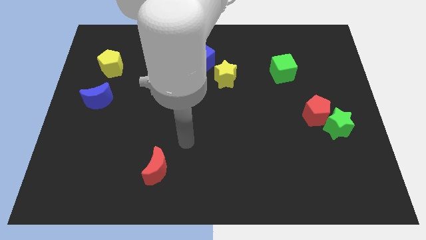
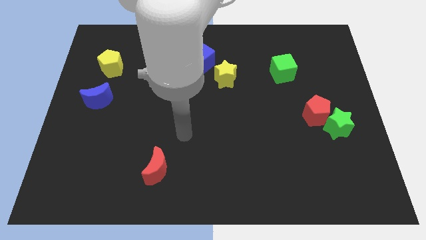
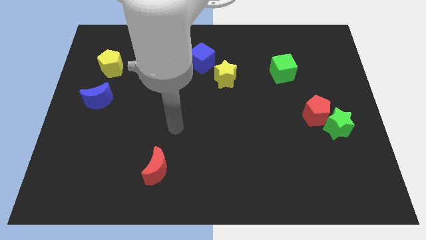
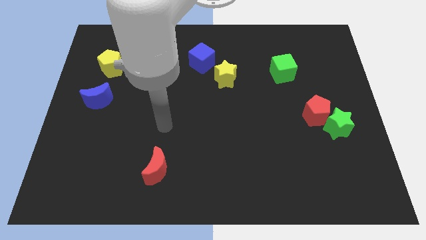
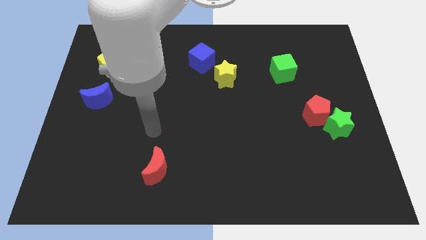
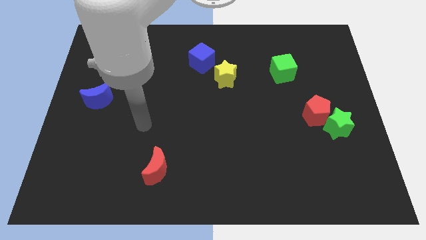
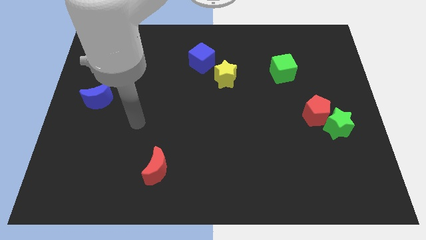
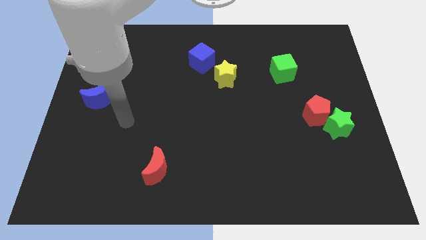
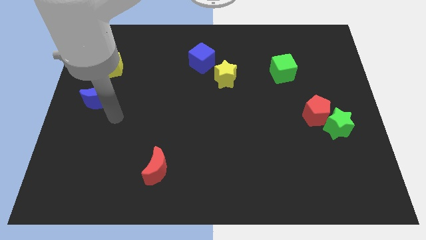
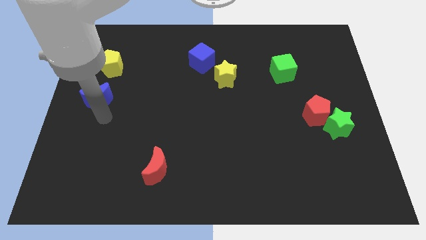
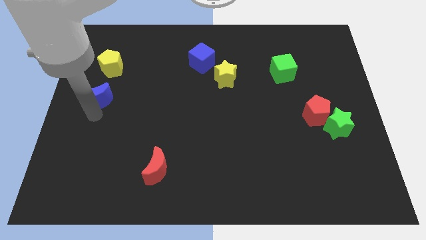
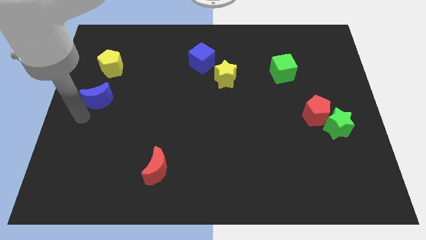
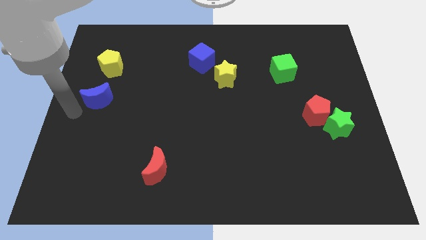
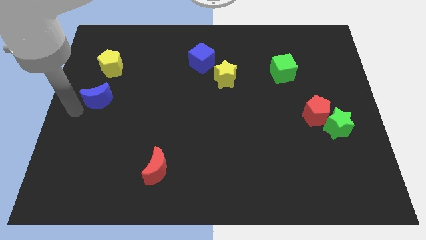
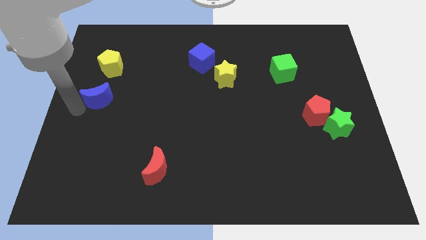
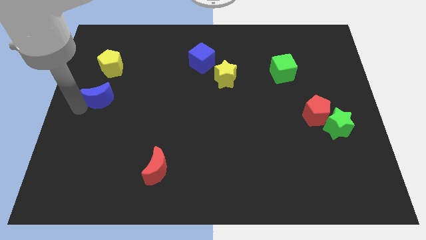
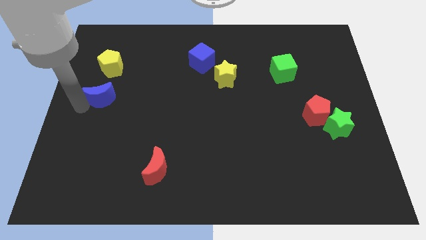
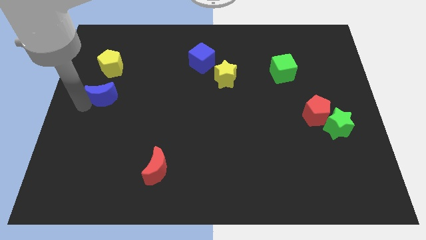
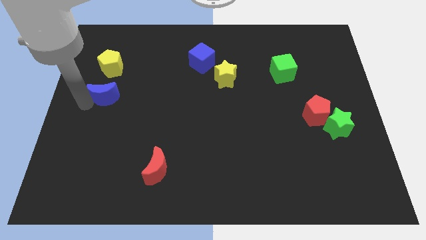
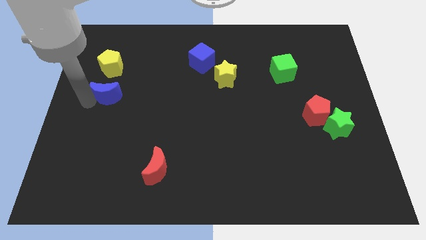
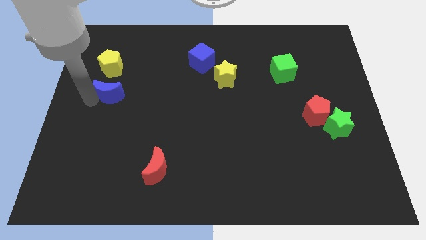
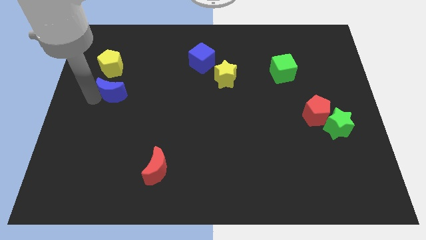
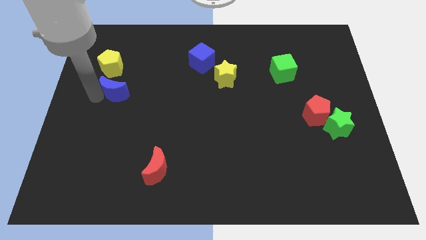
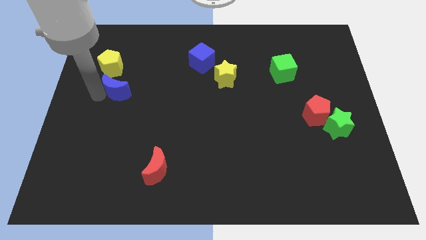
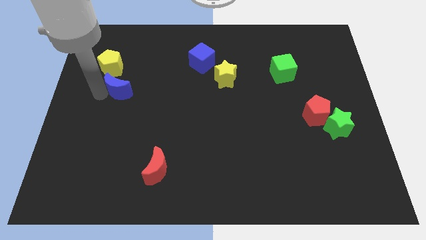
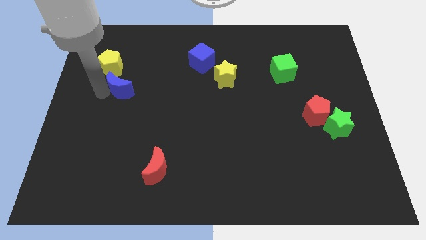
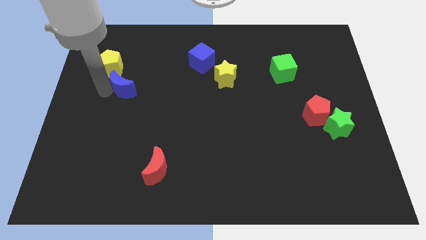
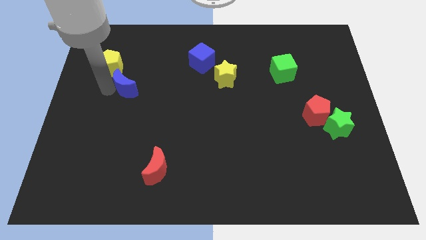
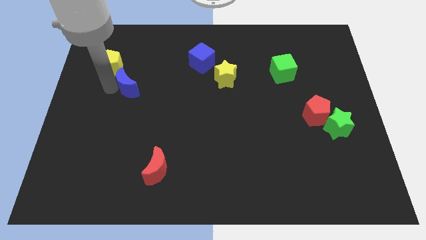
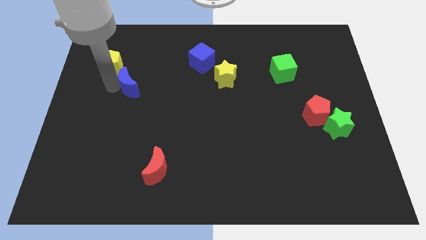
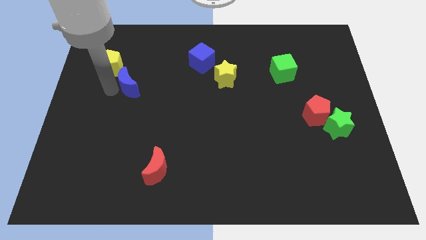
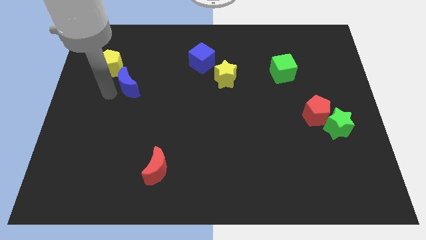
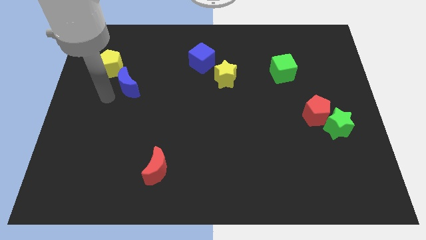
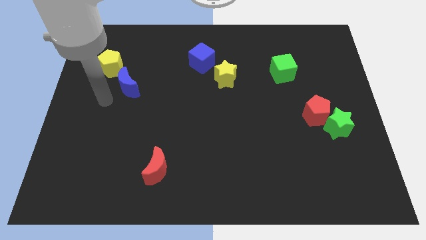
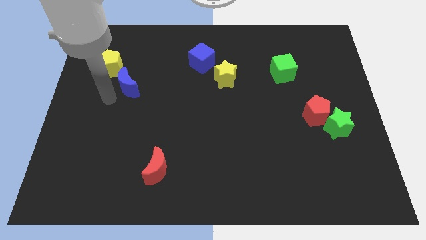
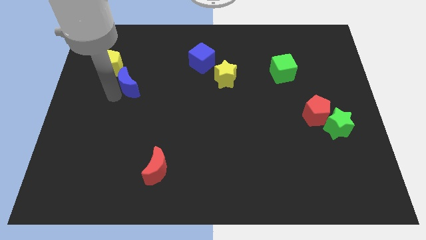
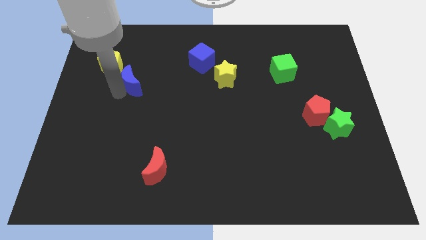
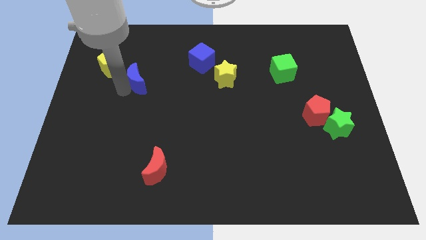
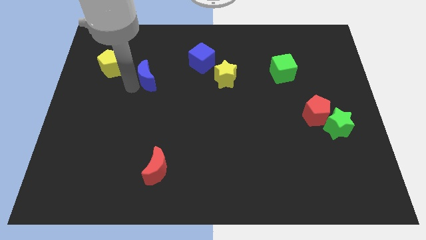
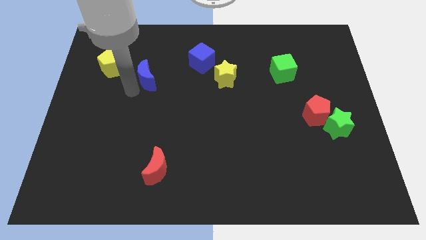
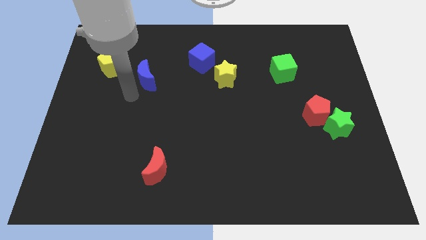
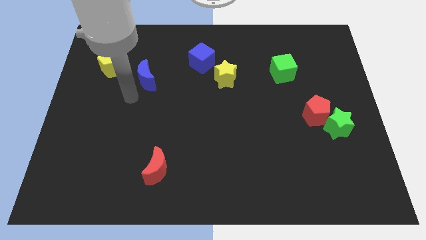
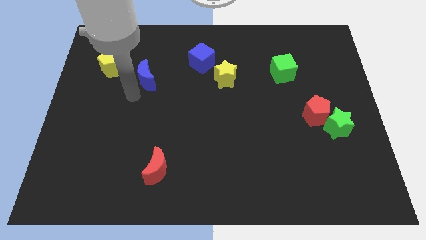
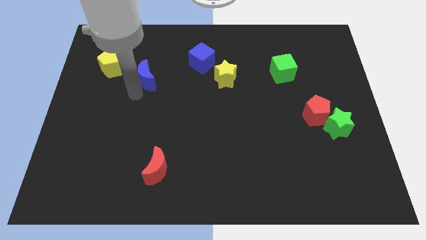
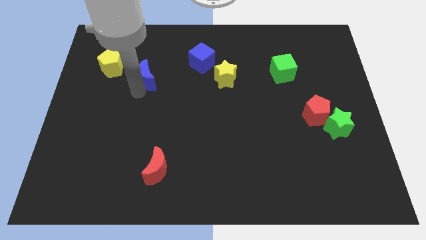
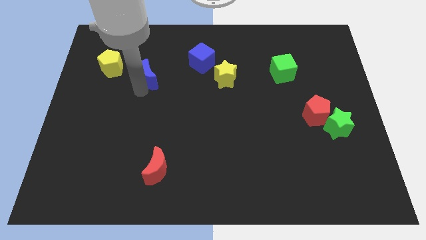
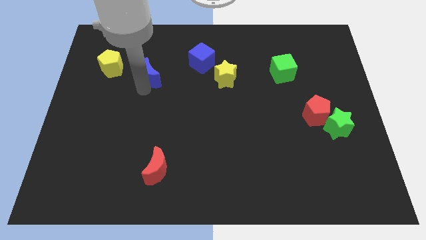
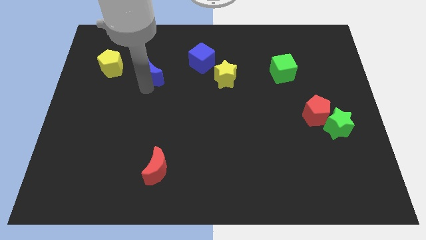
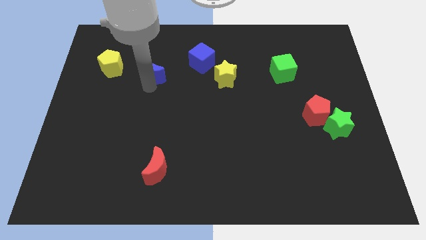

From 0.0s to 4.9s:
put the blue moon to the left side of the blue cube

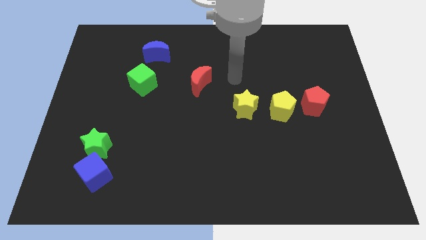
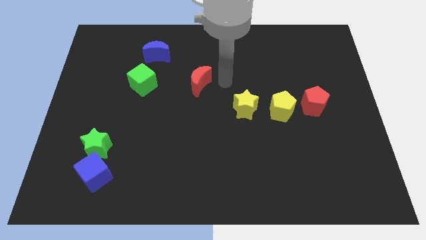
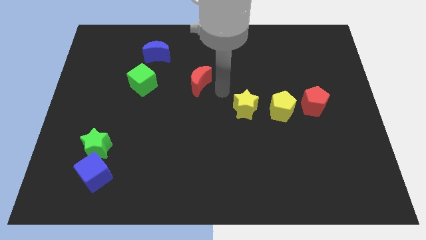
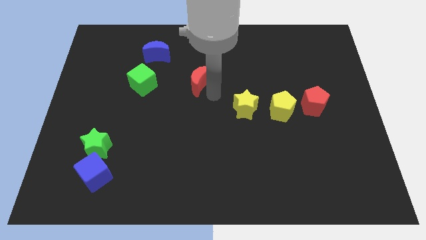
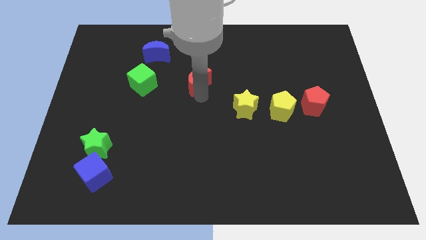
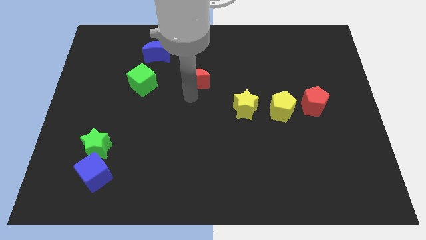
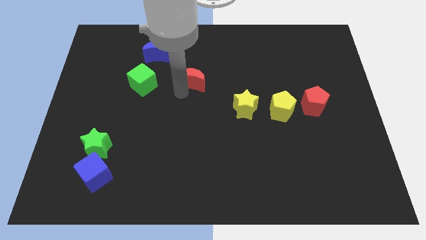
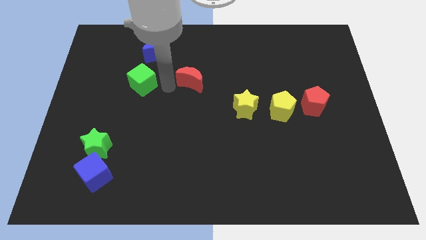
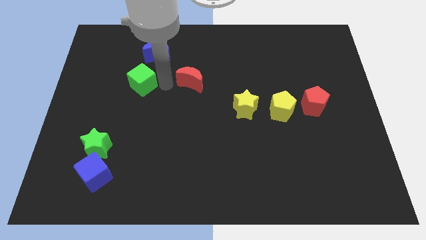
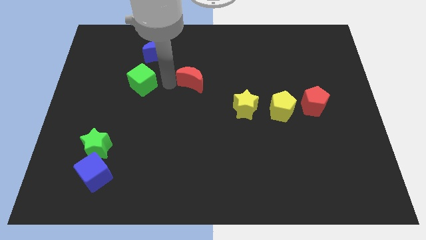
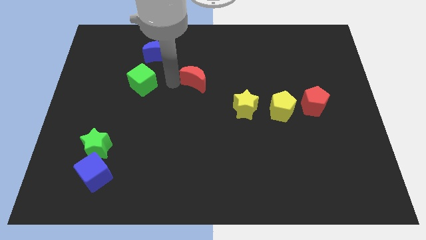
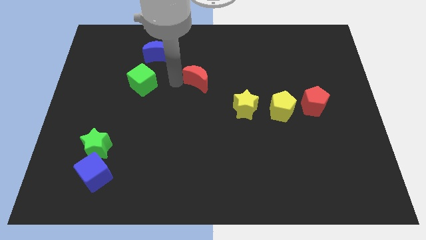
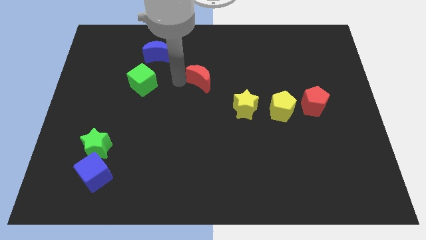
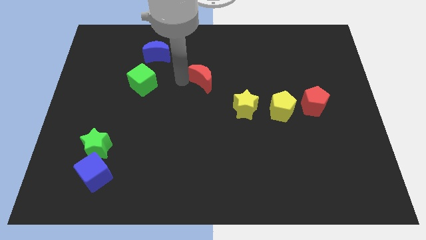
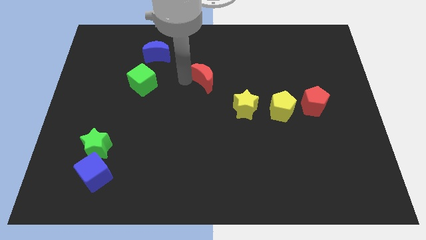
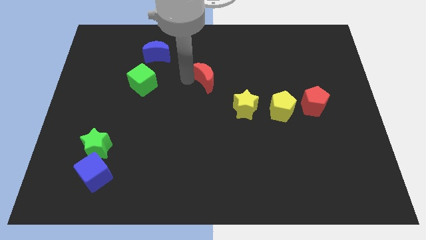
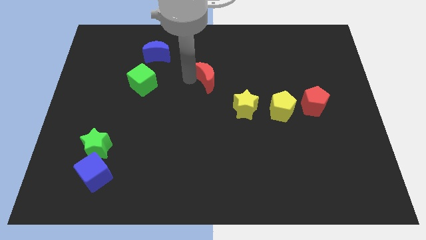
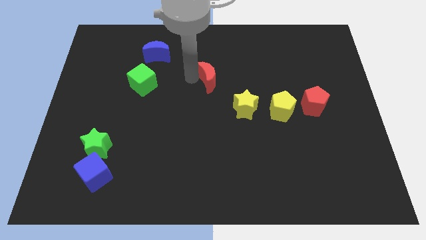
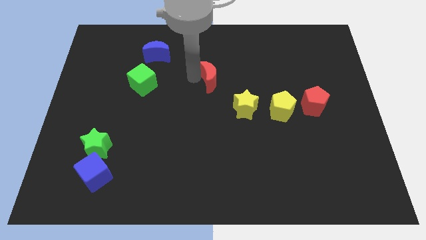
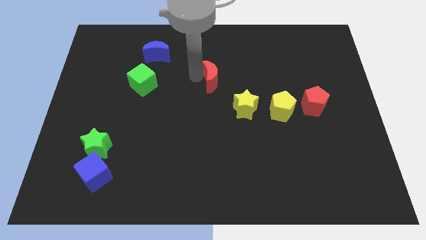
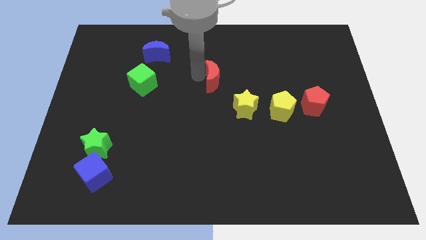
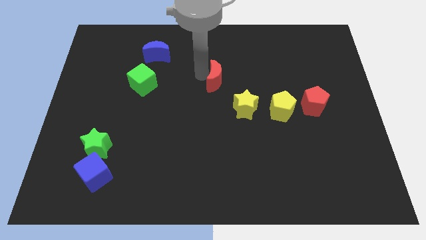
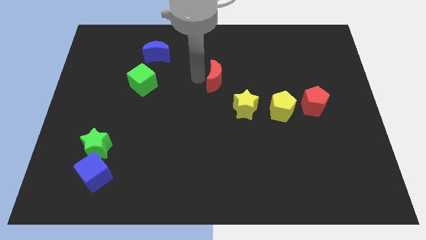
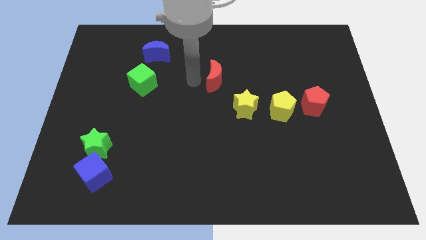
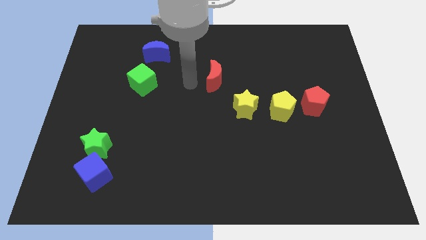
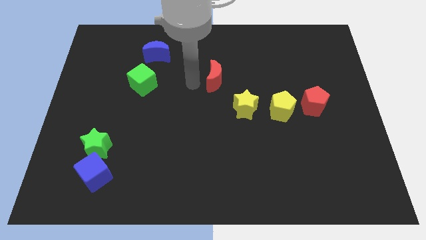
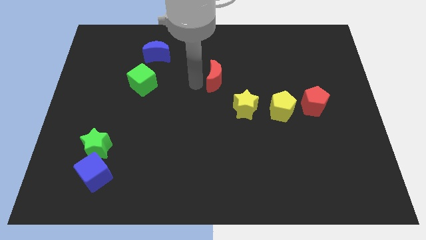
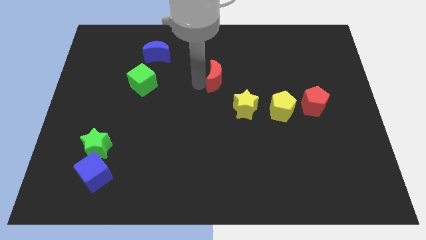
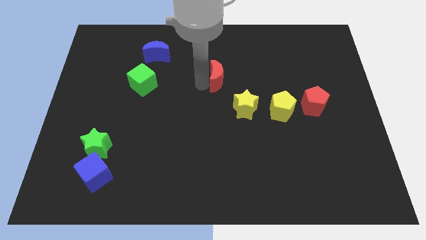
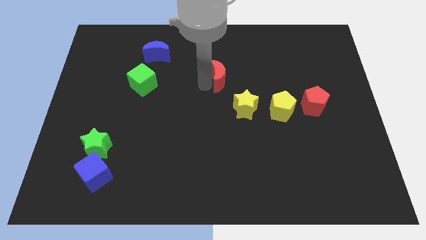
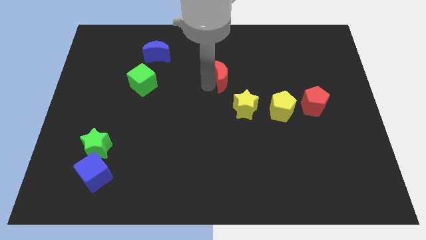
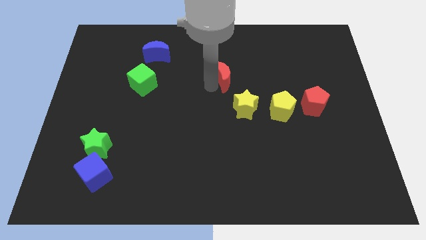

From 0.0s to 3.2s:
push the red moon above the yellow star

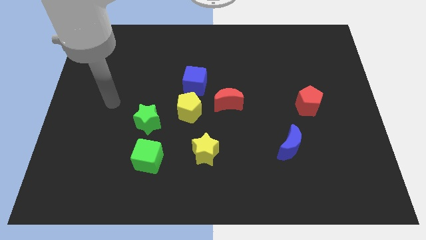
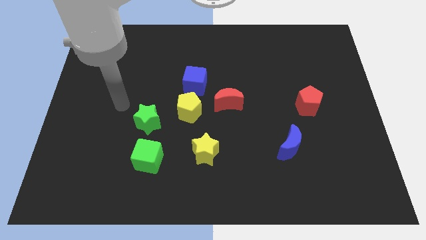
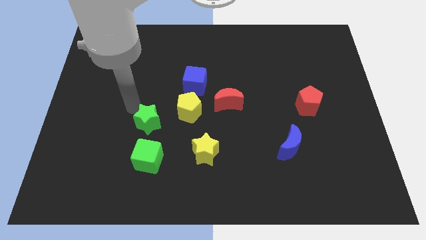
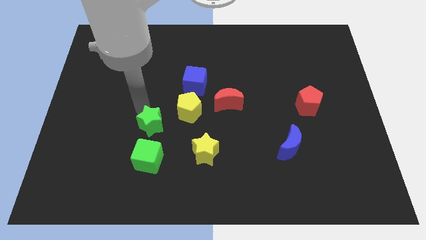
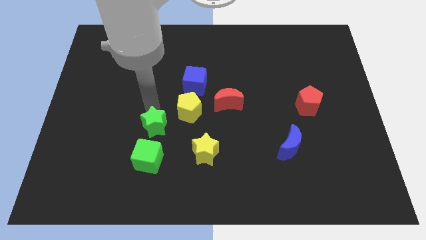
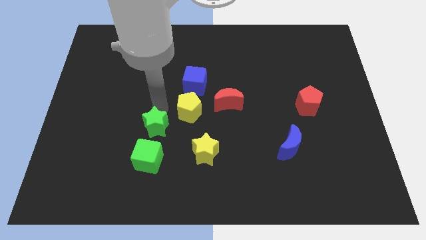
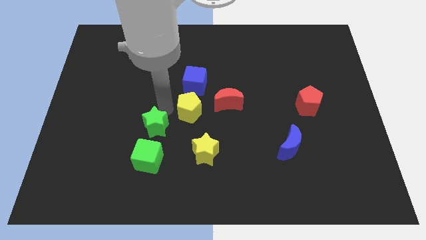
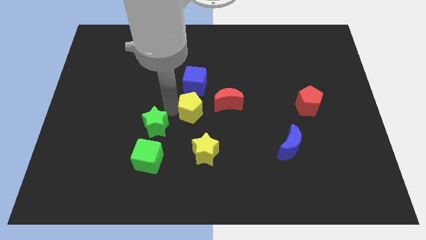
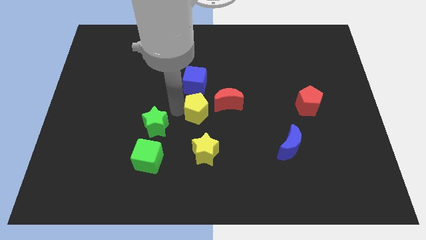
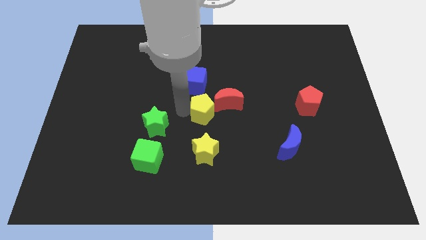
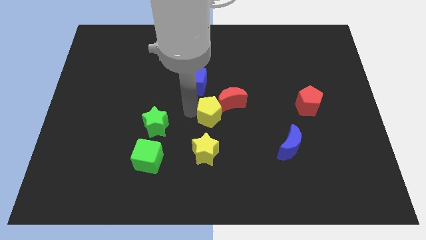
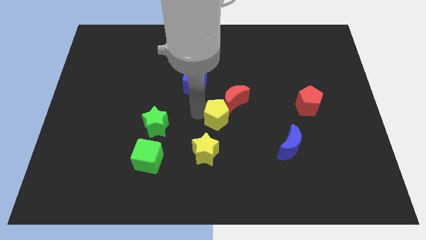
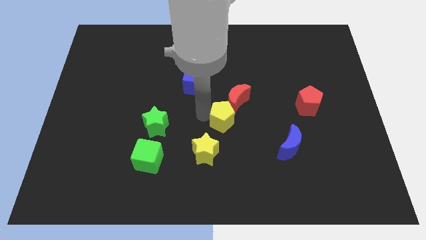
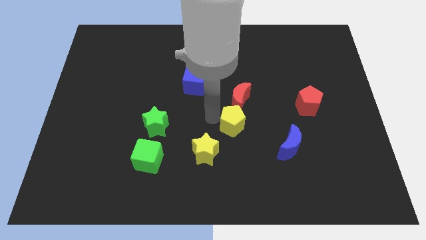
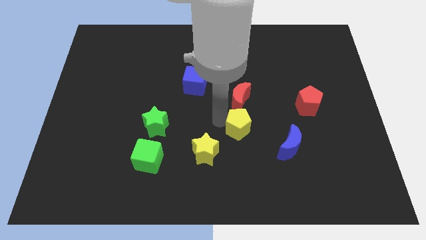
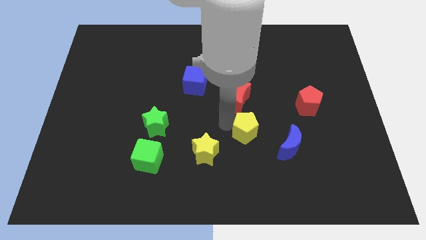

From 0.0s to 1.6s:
move the yellow pentagon to the top left of the blue moon
